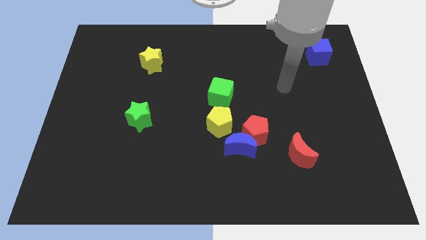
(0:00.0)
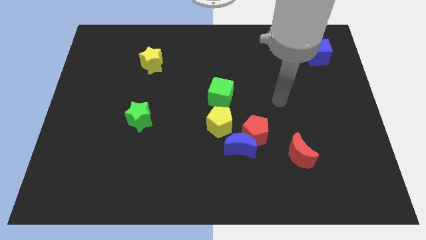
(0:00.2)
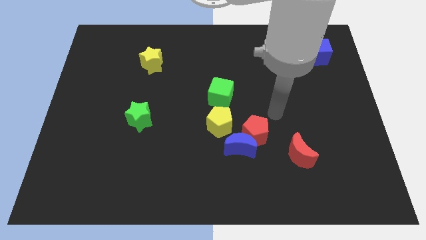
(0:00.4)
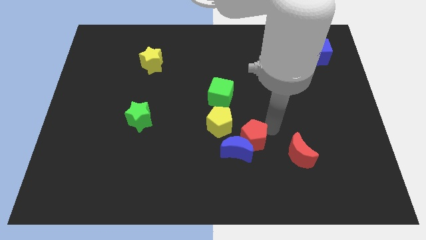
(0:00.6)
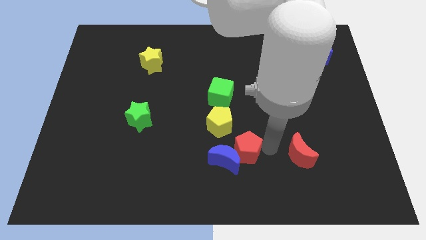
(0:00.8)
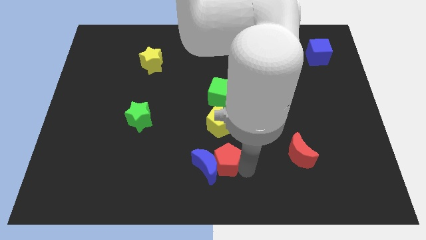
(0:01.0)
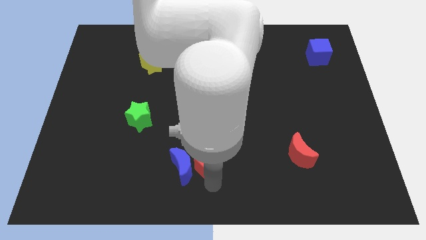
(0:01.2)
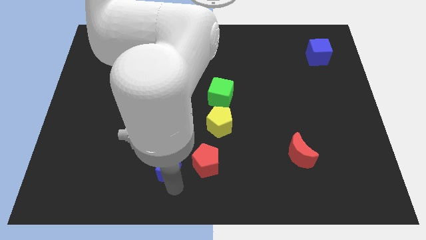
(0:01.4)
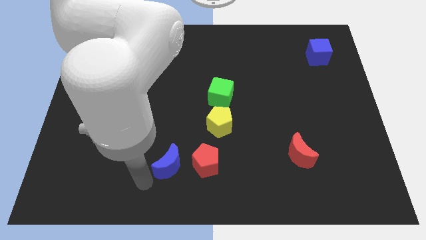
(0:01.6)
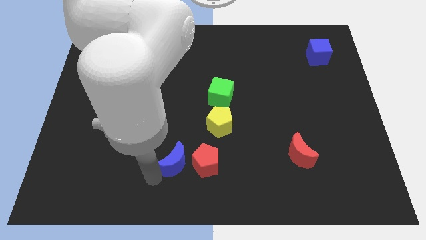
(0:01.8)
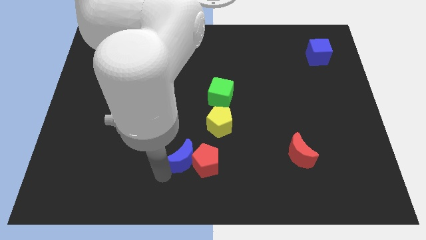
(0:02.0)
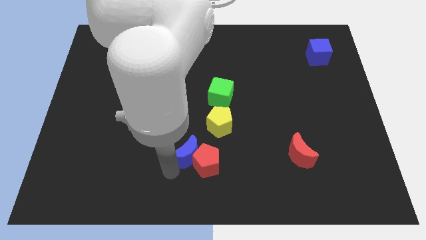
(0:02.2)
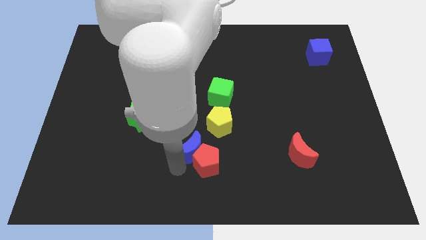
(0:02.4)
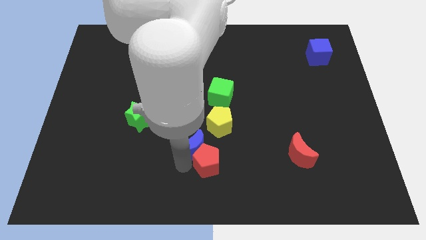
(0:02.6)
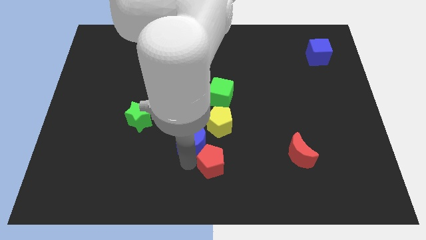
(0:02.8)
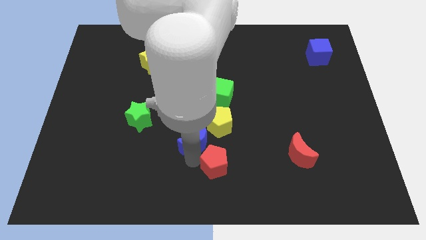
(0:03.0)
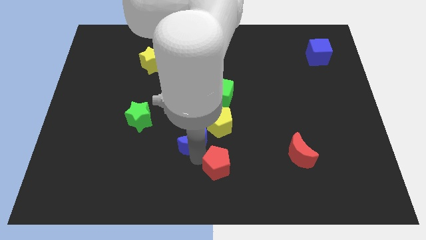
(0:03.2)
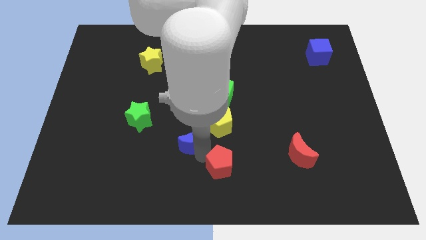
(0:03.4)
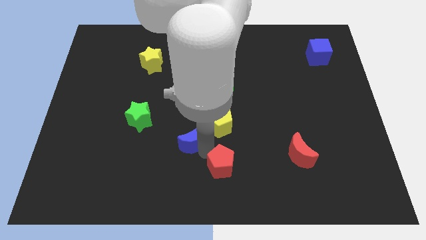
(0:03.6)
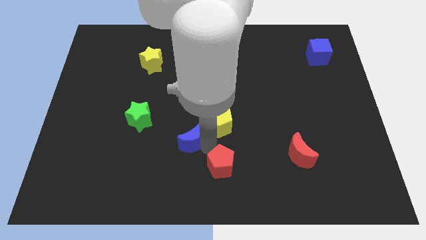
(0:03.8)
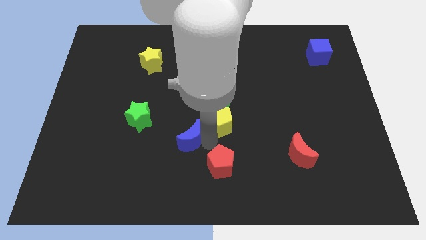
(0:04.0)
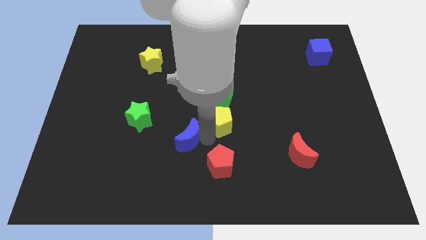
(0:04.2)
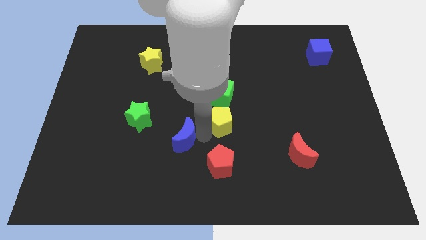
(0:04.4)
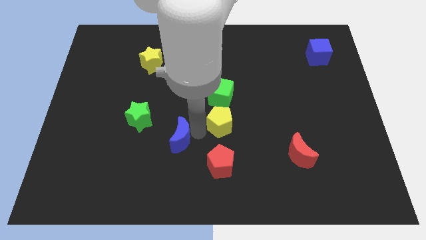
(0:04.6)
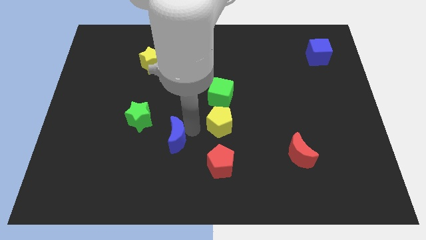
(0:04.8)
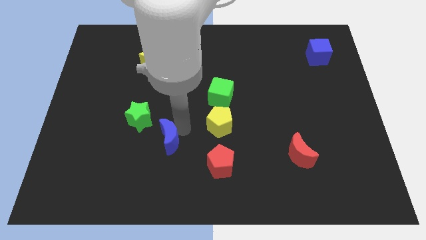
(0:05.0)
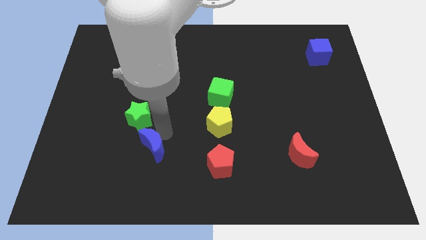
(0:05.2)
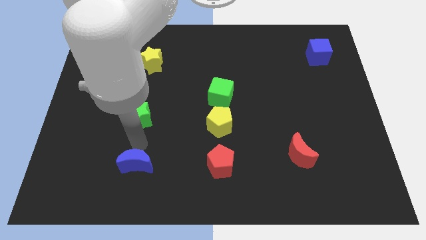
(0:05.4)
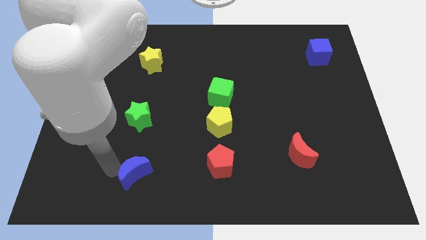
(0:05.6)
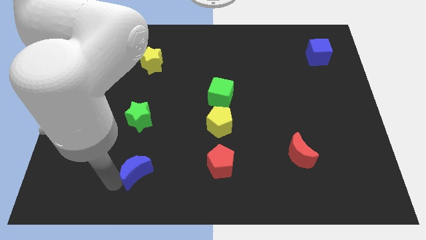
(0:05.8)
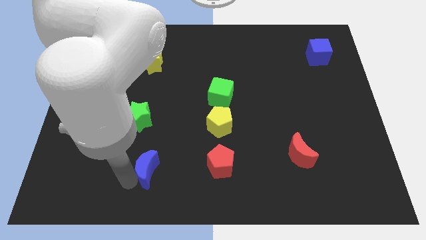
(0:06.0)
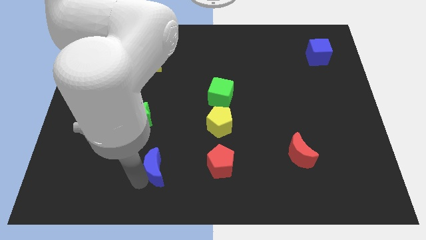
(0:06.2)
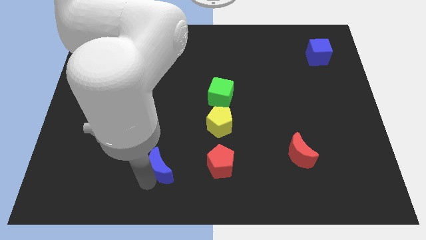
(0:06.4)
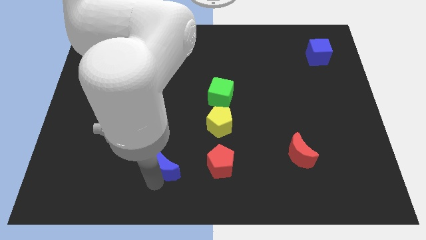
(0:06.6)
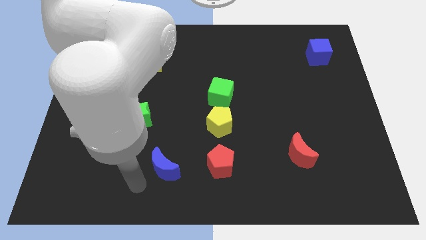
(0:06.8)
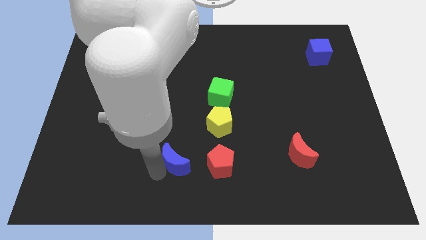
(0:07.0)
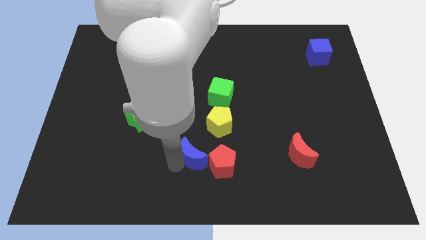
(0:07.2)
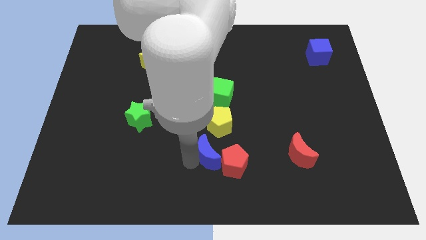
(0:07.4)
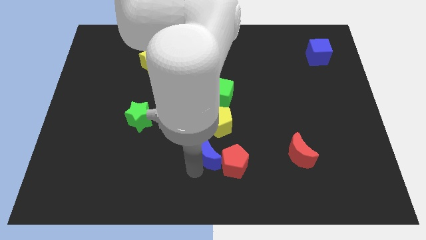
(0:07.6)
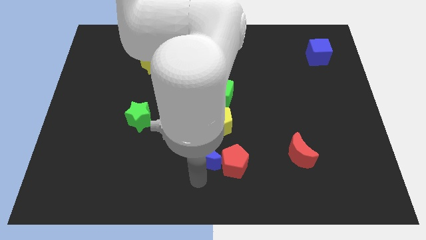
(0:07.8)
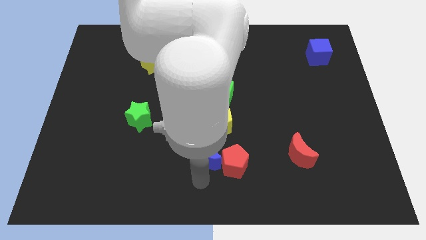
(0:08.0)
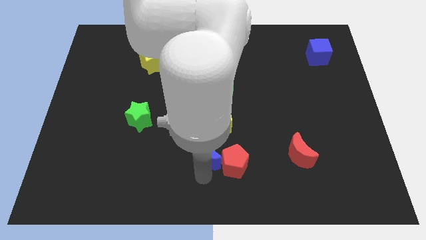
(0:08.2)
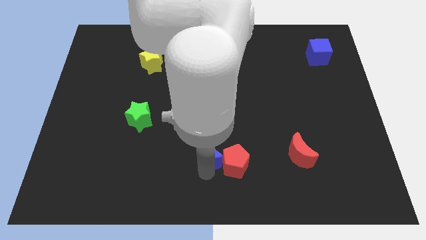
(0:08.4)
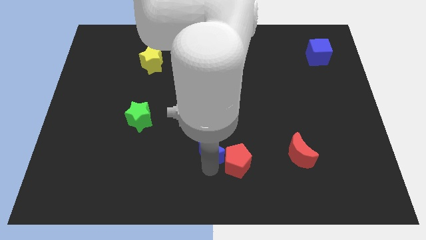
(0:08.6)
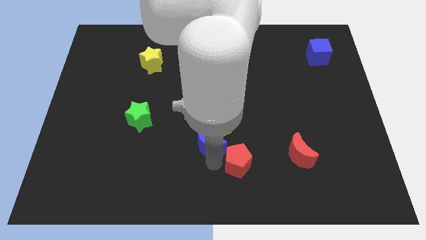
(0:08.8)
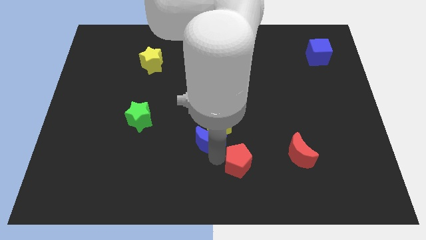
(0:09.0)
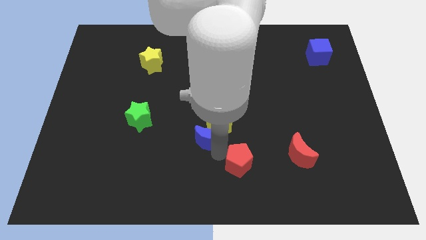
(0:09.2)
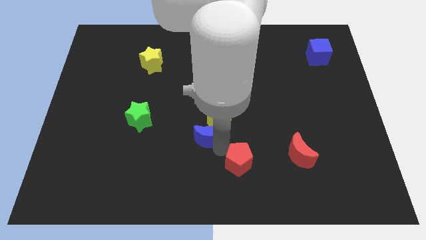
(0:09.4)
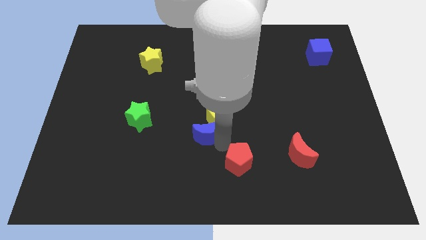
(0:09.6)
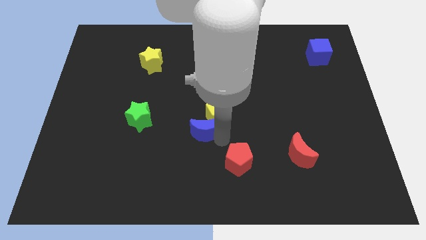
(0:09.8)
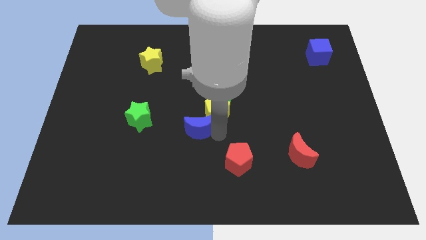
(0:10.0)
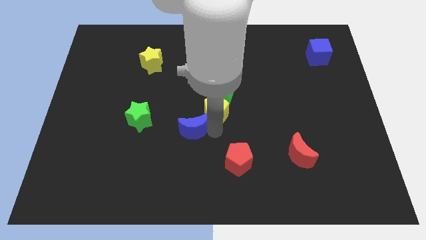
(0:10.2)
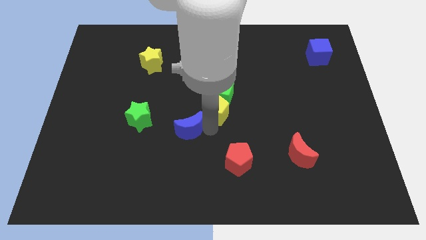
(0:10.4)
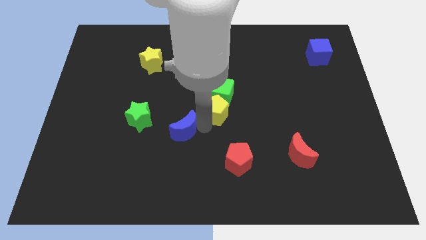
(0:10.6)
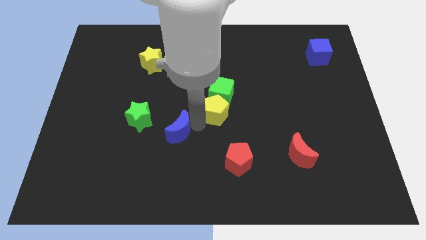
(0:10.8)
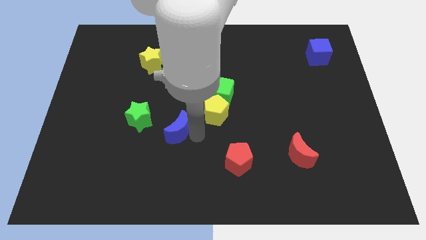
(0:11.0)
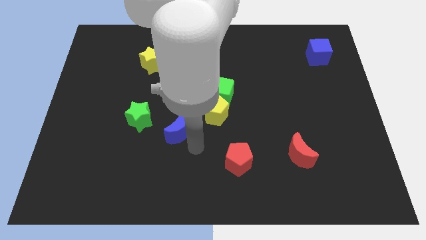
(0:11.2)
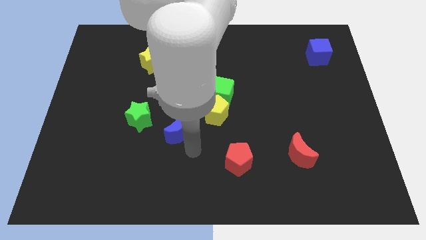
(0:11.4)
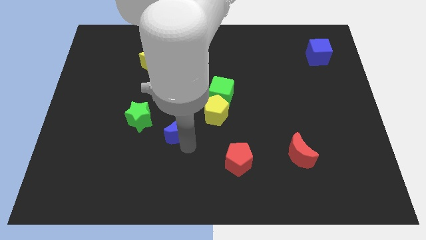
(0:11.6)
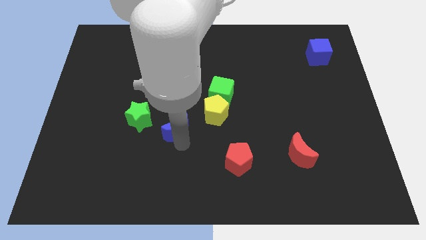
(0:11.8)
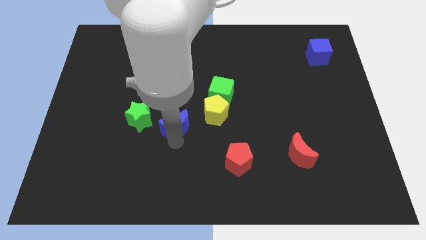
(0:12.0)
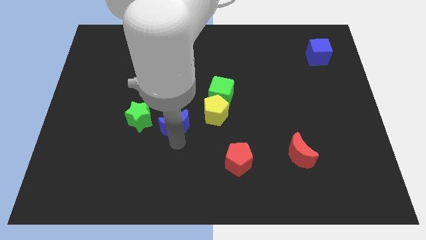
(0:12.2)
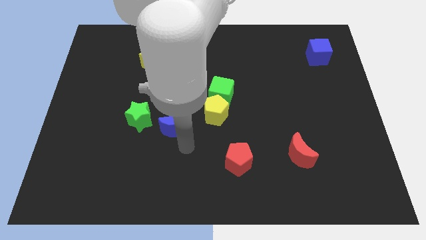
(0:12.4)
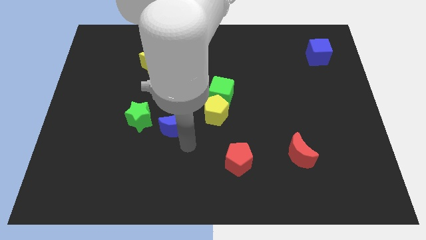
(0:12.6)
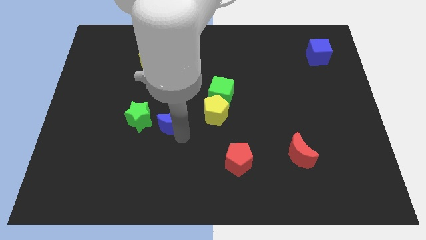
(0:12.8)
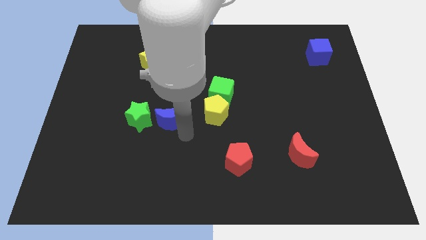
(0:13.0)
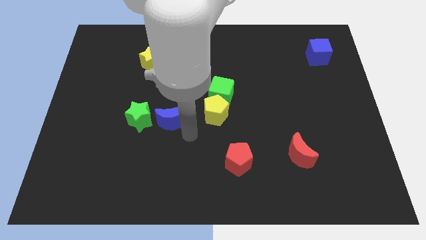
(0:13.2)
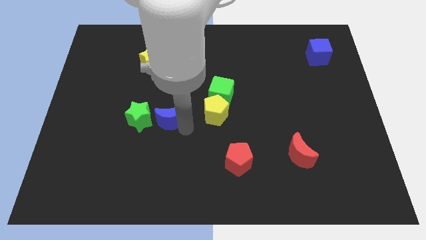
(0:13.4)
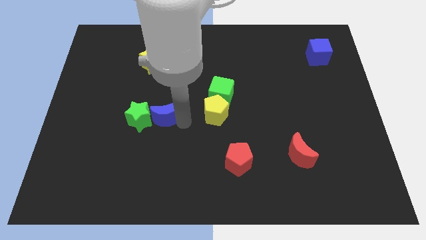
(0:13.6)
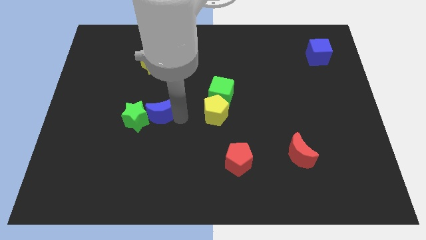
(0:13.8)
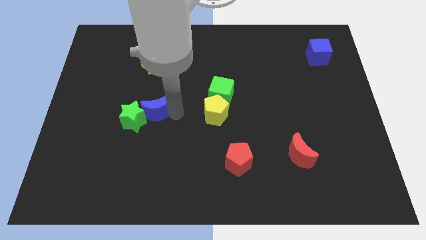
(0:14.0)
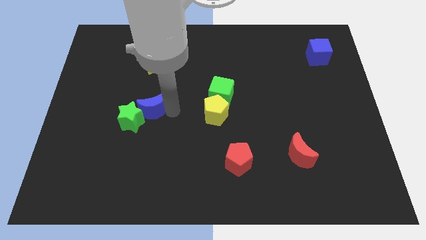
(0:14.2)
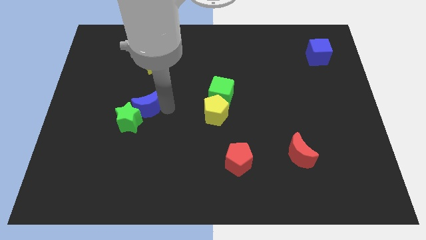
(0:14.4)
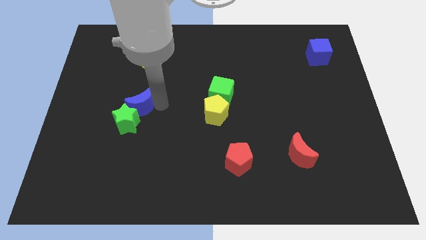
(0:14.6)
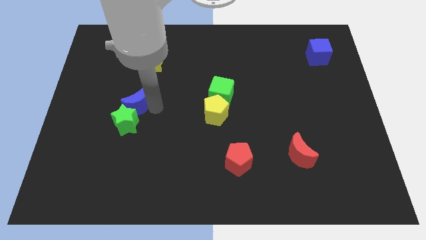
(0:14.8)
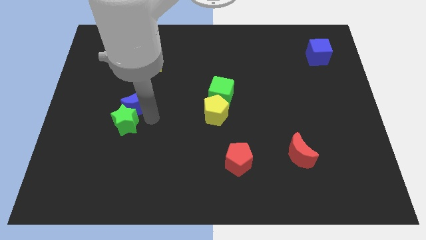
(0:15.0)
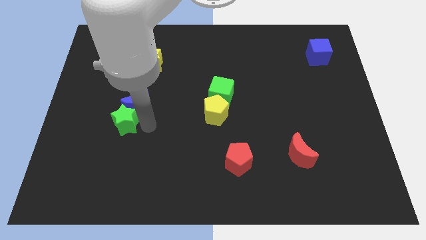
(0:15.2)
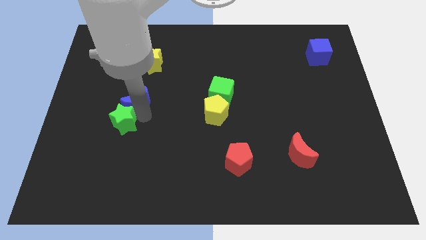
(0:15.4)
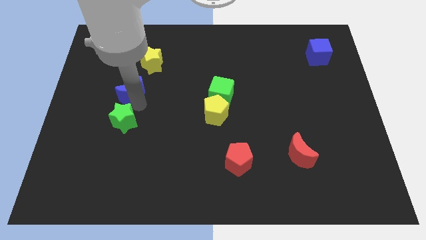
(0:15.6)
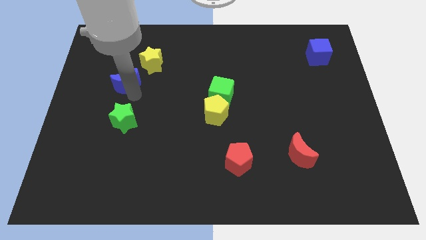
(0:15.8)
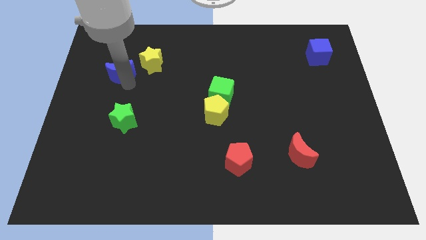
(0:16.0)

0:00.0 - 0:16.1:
put the blue moon to the left of the yellow star
